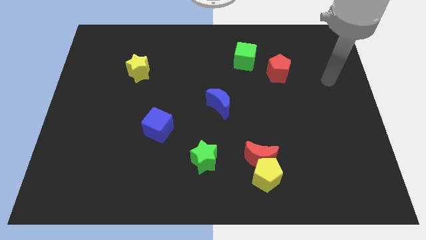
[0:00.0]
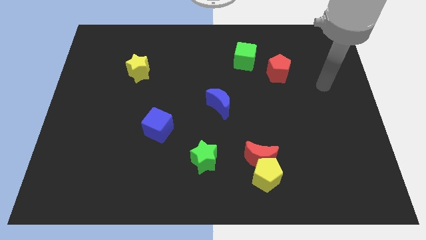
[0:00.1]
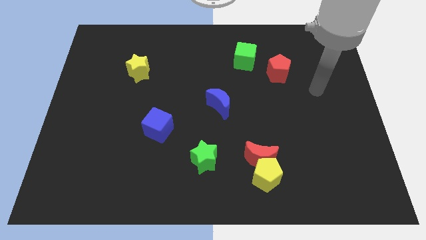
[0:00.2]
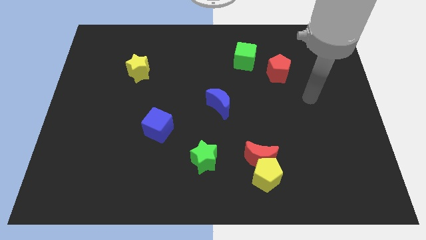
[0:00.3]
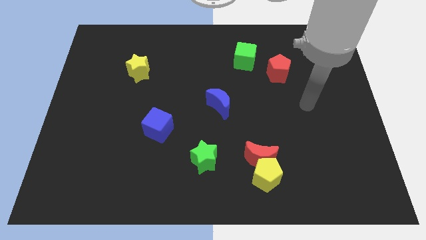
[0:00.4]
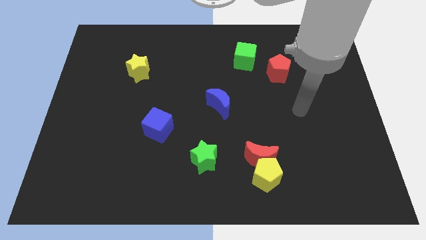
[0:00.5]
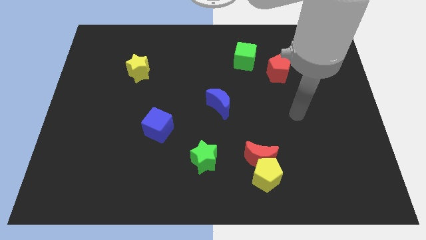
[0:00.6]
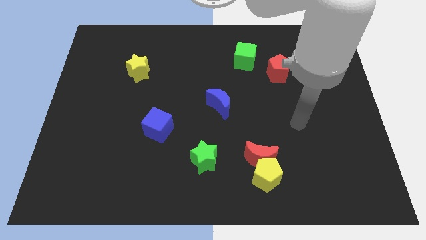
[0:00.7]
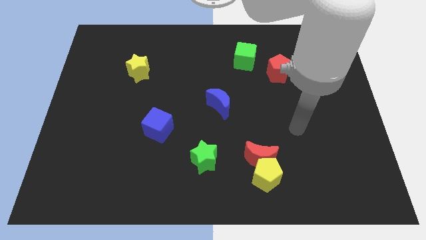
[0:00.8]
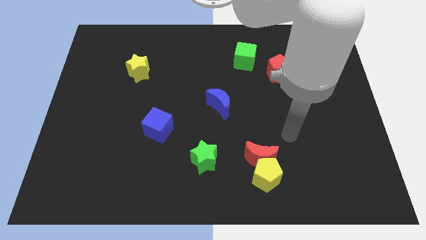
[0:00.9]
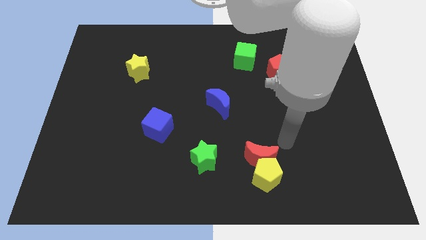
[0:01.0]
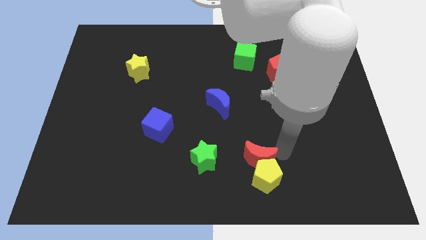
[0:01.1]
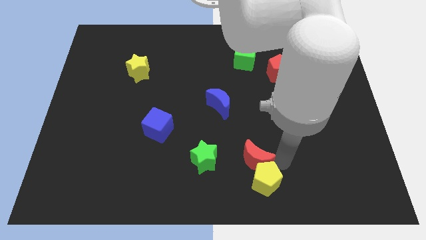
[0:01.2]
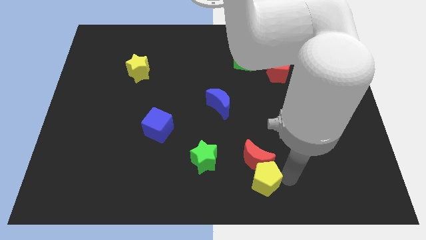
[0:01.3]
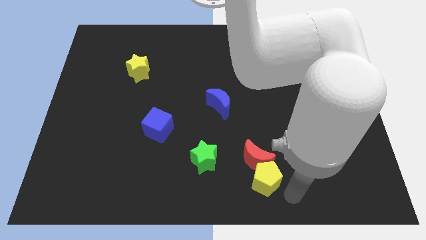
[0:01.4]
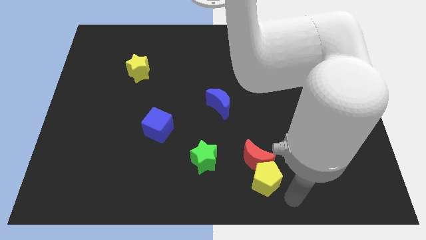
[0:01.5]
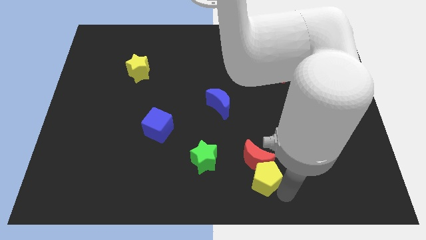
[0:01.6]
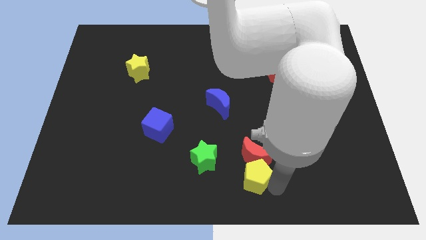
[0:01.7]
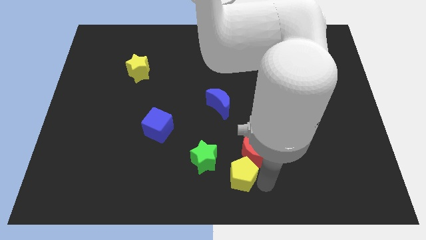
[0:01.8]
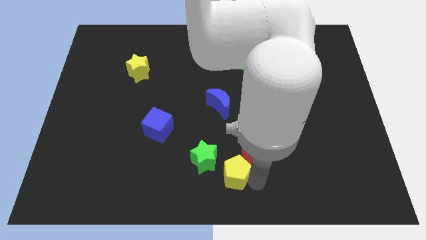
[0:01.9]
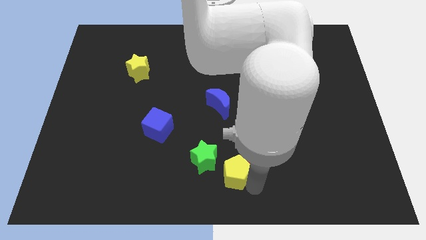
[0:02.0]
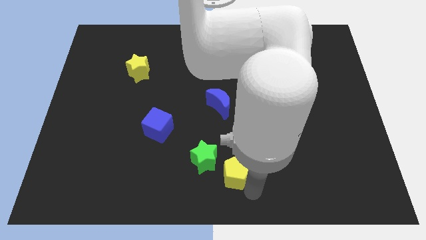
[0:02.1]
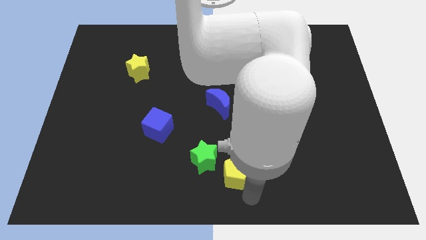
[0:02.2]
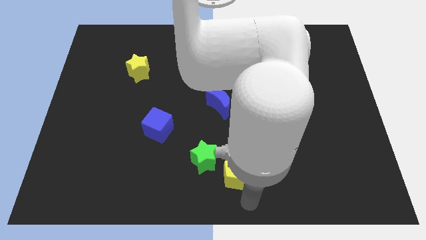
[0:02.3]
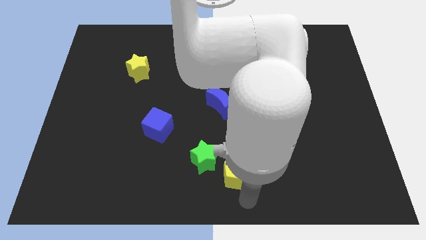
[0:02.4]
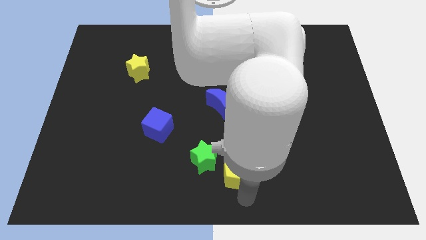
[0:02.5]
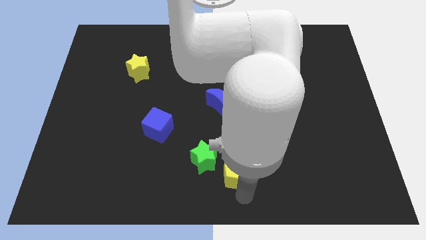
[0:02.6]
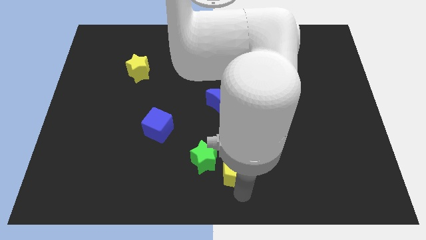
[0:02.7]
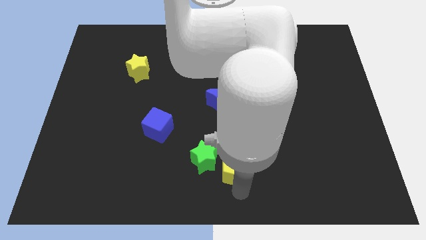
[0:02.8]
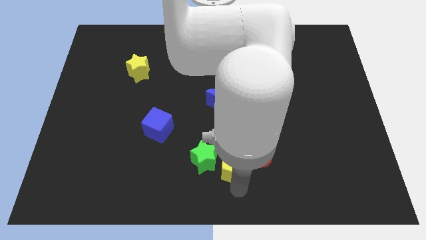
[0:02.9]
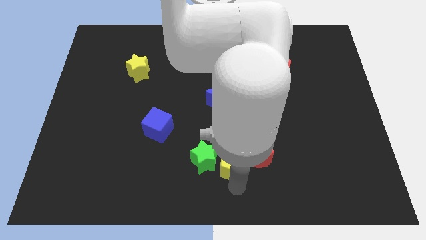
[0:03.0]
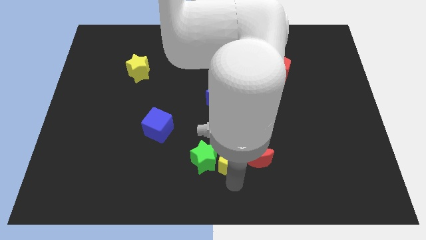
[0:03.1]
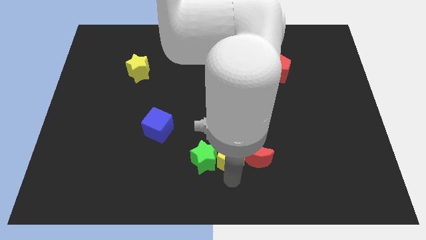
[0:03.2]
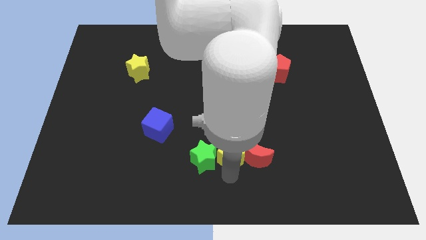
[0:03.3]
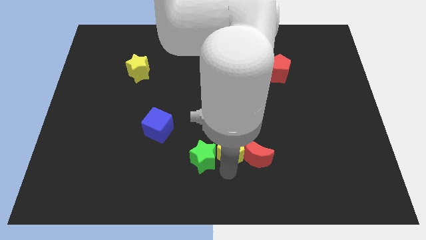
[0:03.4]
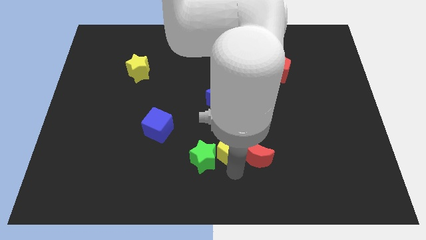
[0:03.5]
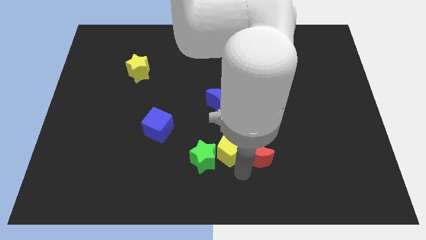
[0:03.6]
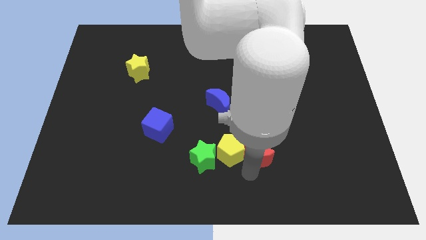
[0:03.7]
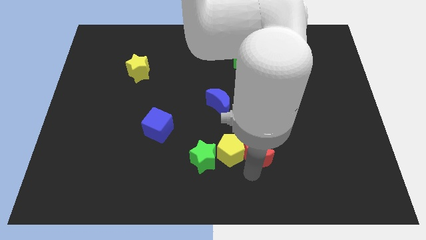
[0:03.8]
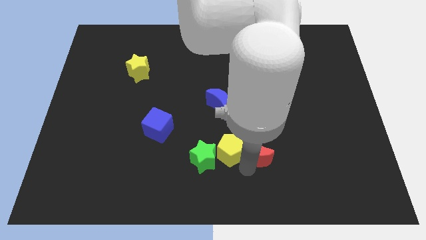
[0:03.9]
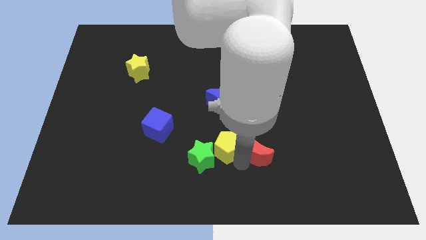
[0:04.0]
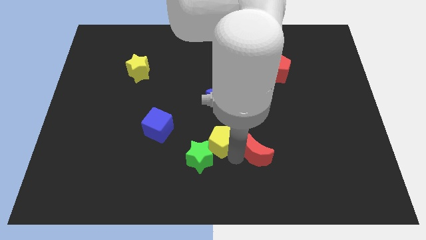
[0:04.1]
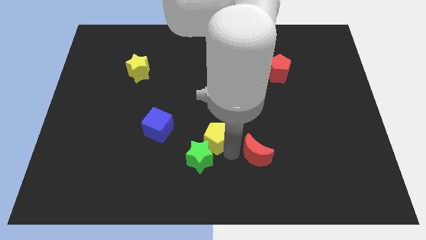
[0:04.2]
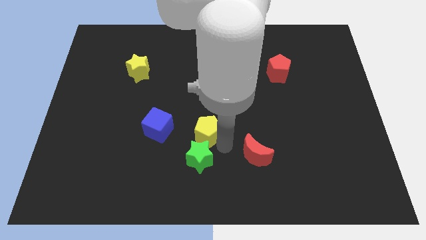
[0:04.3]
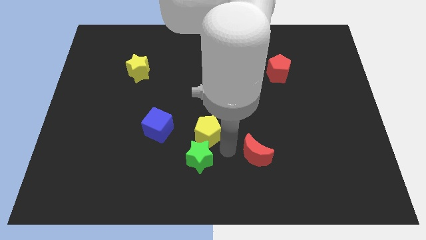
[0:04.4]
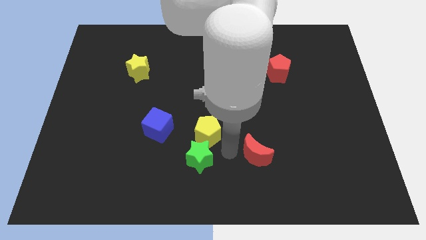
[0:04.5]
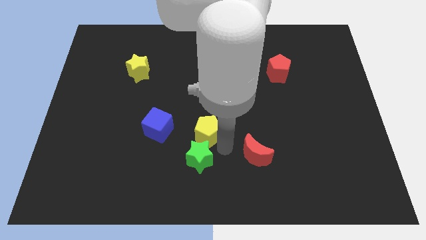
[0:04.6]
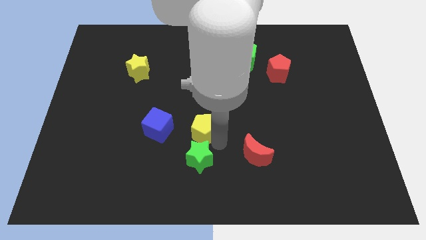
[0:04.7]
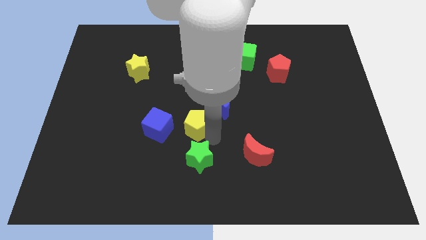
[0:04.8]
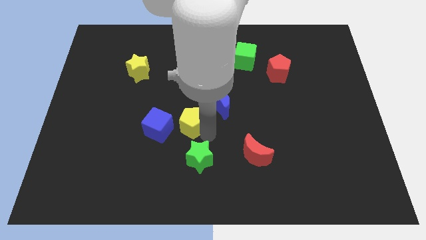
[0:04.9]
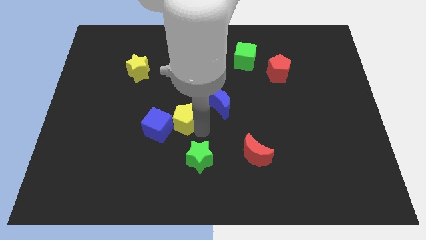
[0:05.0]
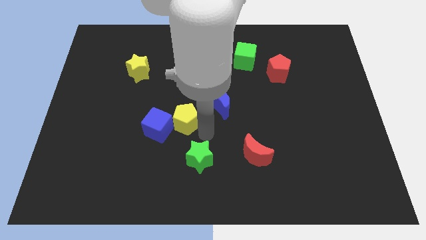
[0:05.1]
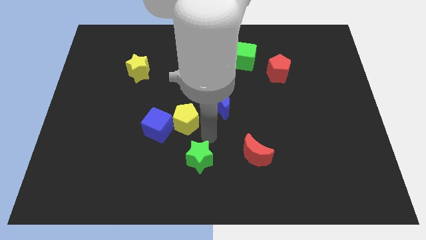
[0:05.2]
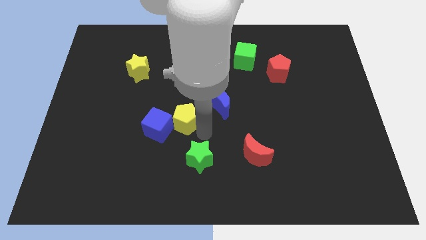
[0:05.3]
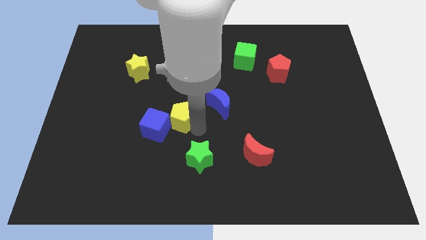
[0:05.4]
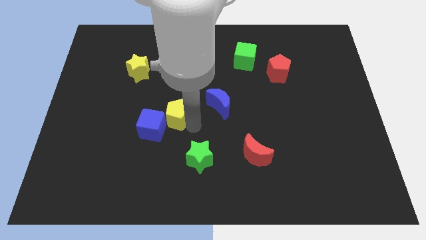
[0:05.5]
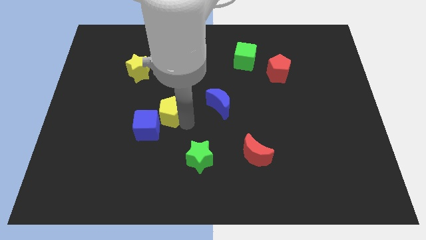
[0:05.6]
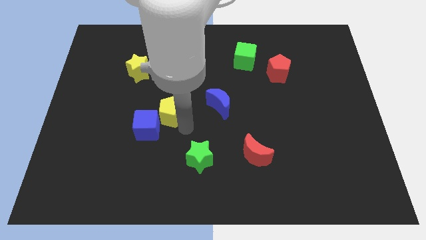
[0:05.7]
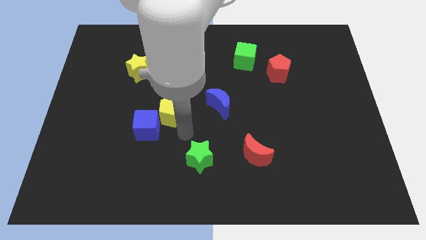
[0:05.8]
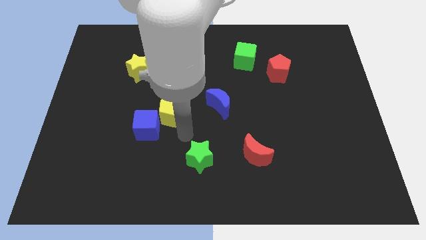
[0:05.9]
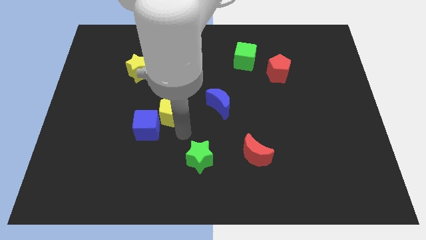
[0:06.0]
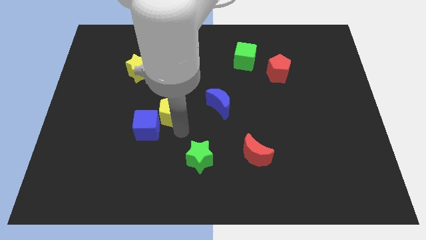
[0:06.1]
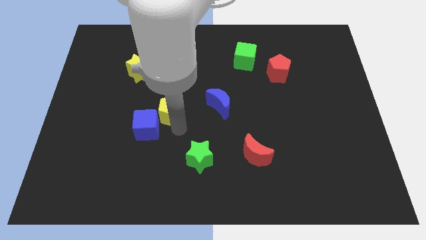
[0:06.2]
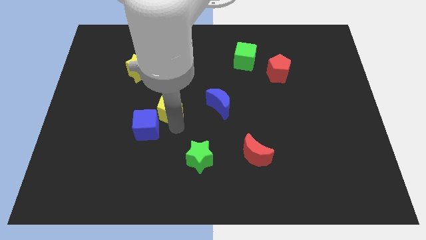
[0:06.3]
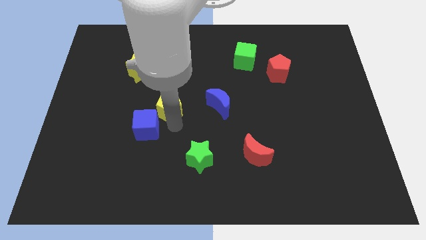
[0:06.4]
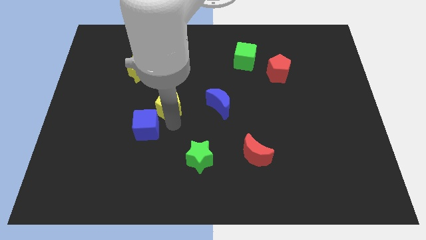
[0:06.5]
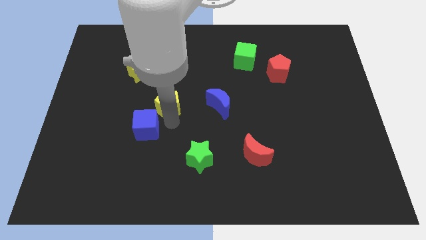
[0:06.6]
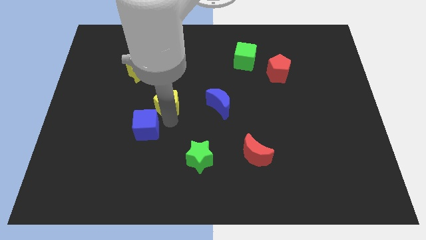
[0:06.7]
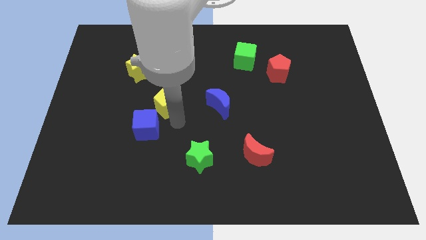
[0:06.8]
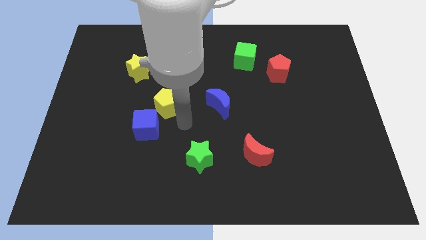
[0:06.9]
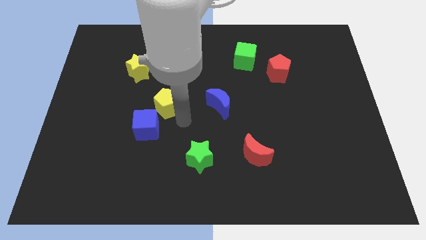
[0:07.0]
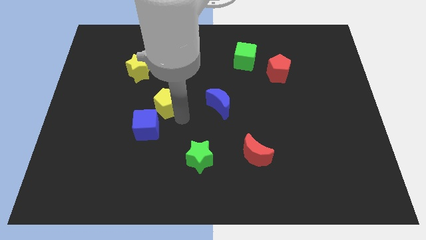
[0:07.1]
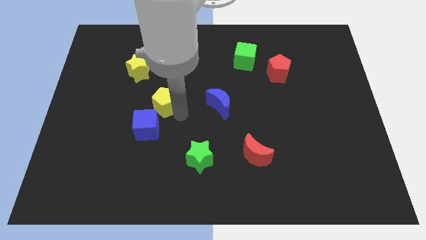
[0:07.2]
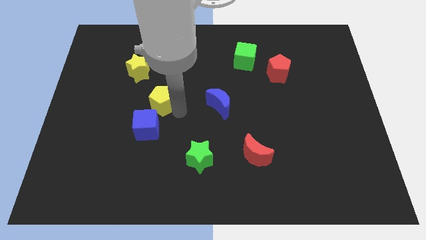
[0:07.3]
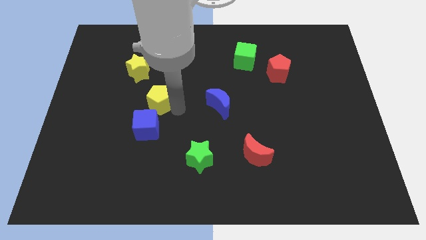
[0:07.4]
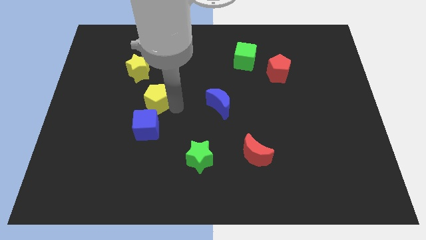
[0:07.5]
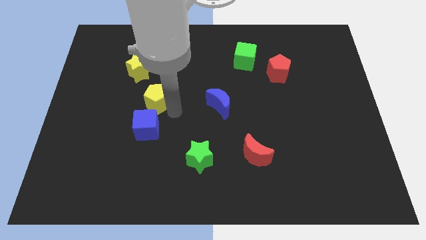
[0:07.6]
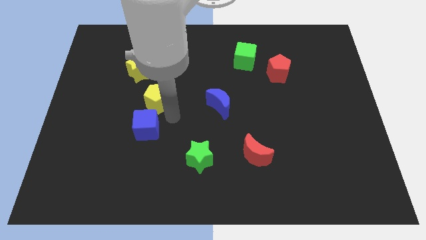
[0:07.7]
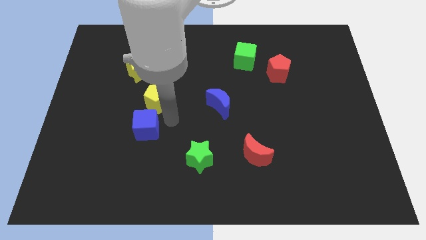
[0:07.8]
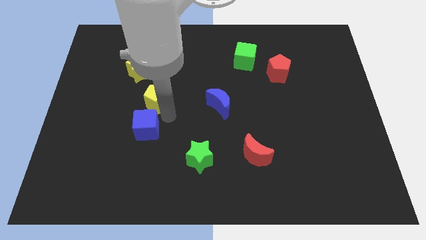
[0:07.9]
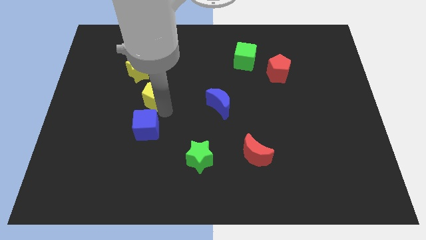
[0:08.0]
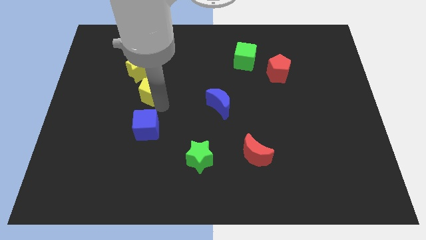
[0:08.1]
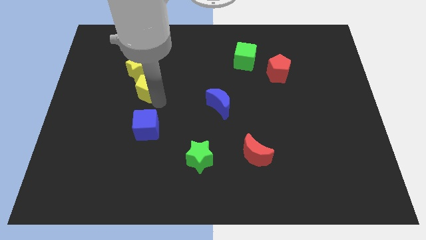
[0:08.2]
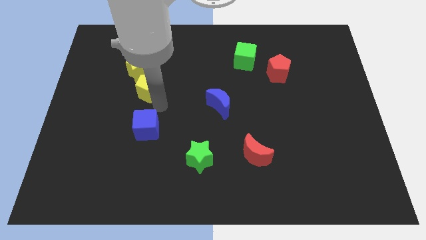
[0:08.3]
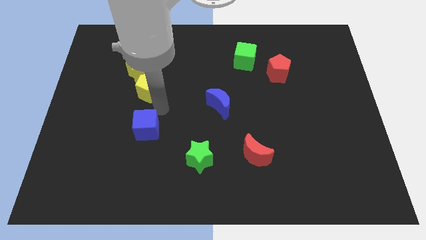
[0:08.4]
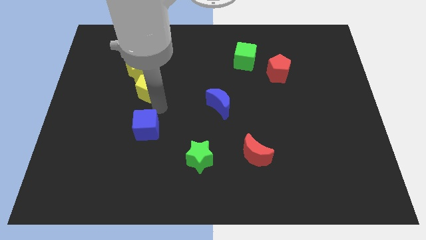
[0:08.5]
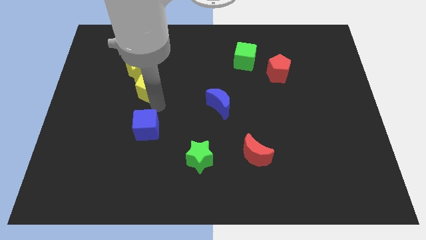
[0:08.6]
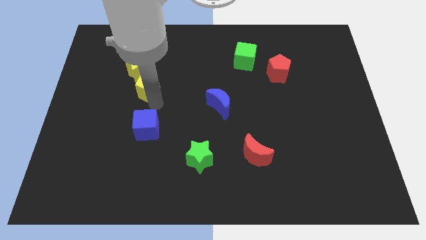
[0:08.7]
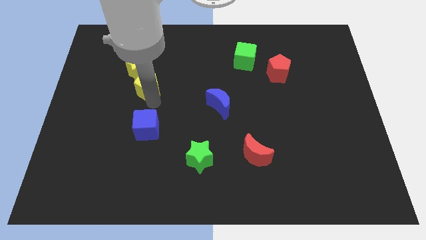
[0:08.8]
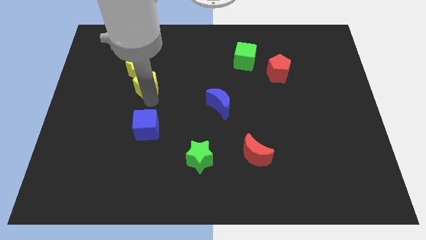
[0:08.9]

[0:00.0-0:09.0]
slide the yellow pentagon close to the yellow star
